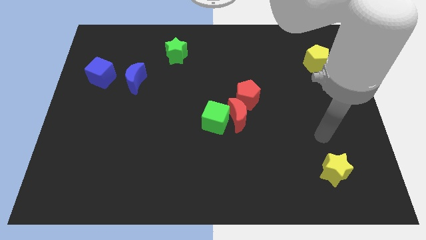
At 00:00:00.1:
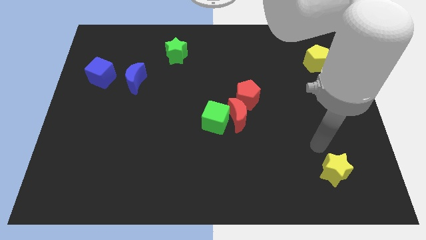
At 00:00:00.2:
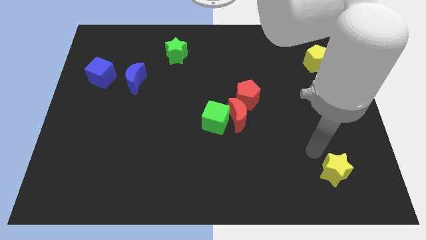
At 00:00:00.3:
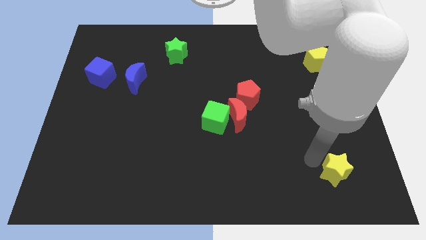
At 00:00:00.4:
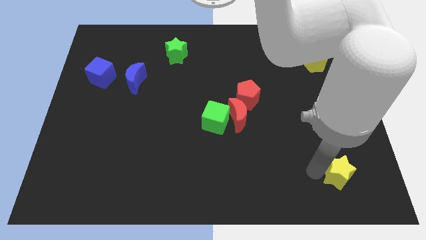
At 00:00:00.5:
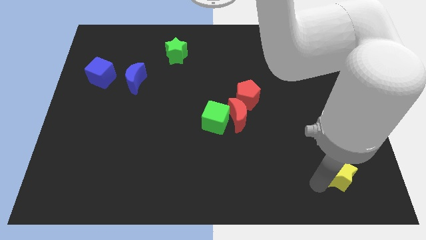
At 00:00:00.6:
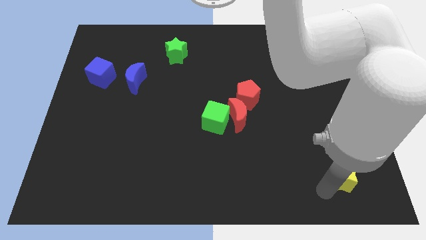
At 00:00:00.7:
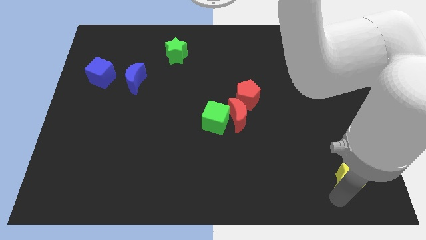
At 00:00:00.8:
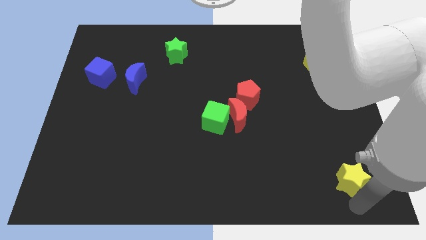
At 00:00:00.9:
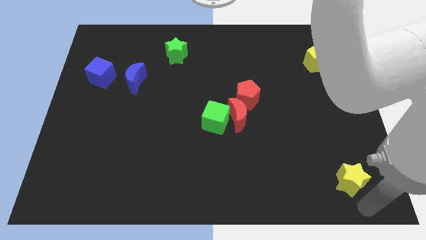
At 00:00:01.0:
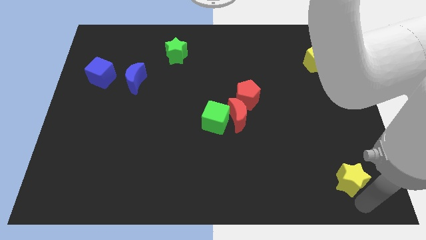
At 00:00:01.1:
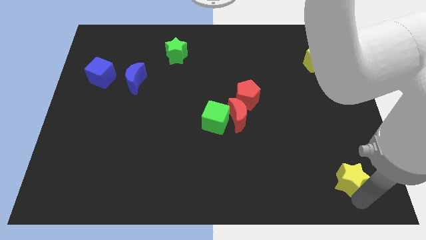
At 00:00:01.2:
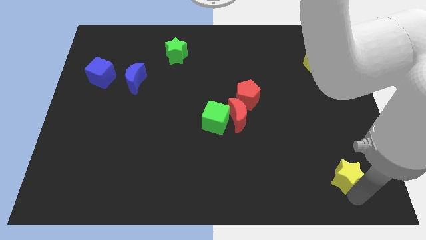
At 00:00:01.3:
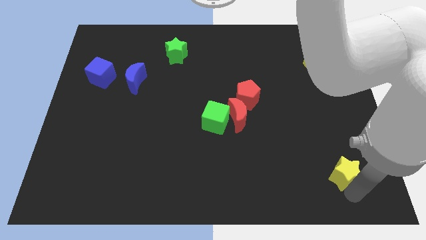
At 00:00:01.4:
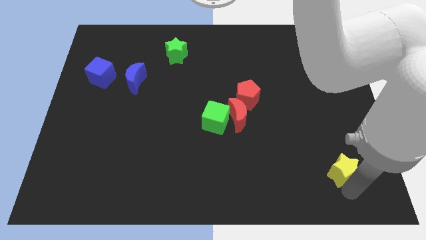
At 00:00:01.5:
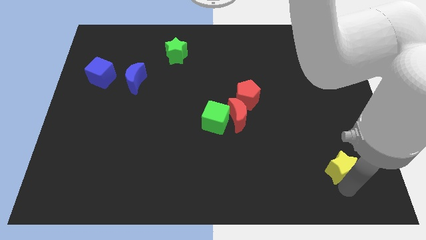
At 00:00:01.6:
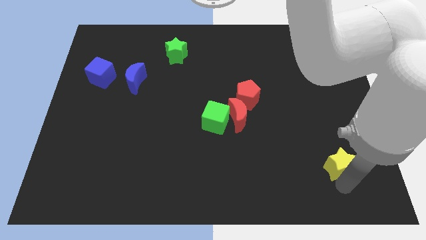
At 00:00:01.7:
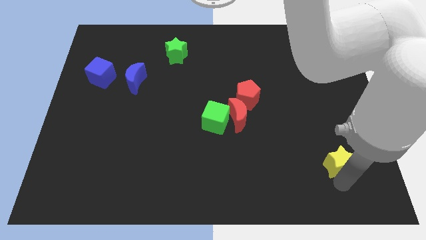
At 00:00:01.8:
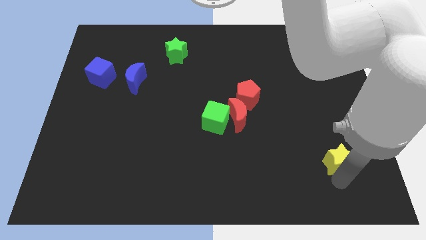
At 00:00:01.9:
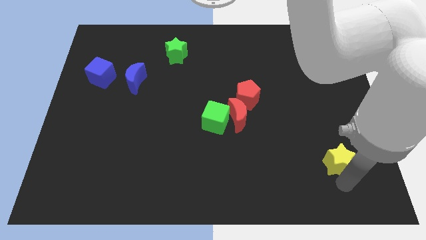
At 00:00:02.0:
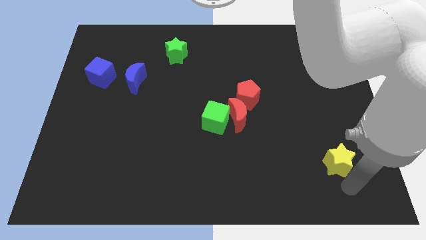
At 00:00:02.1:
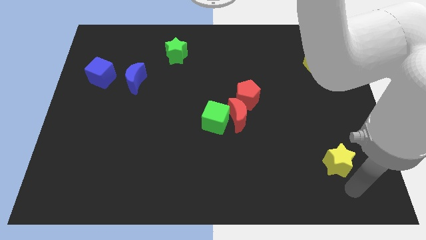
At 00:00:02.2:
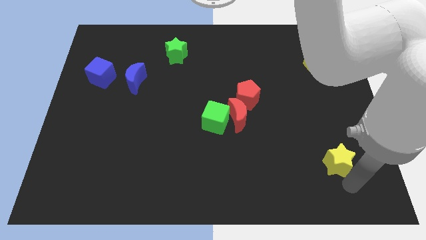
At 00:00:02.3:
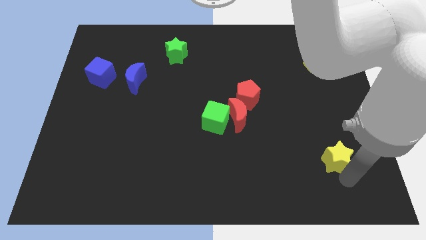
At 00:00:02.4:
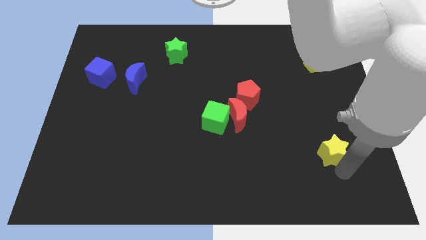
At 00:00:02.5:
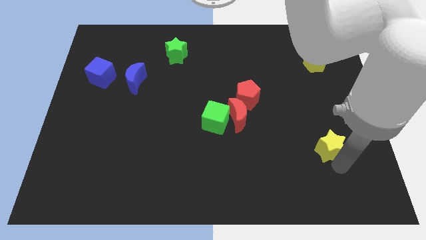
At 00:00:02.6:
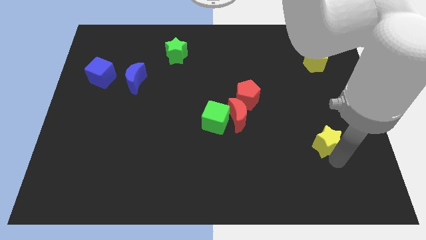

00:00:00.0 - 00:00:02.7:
move the yellow star up slightly

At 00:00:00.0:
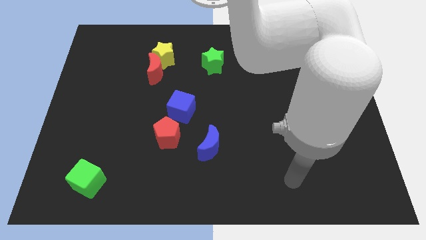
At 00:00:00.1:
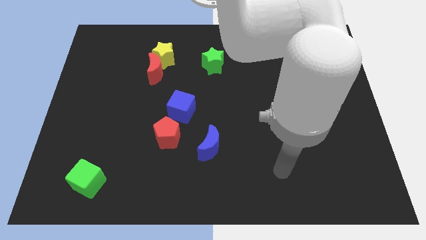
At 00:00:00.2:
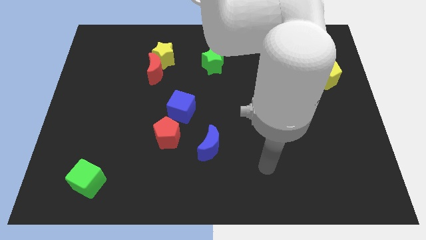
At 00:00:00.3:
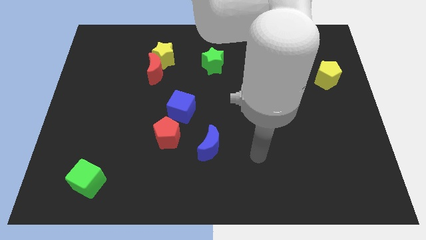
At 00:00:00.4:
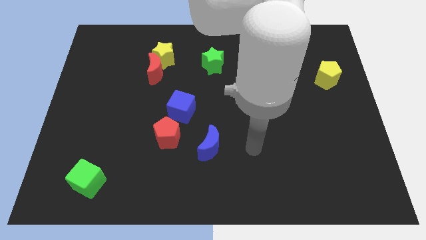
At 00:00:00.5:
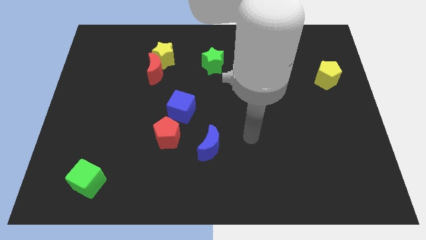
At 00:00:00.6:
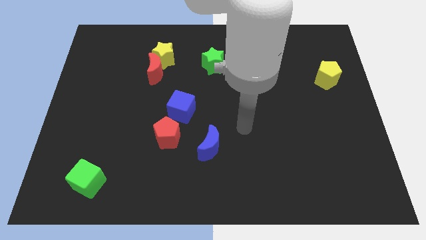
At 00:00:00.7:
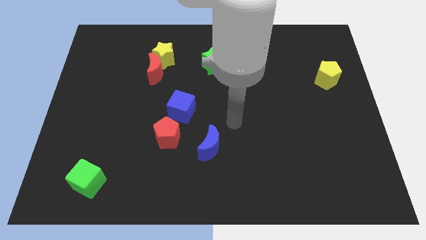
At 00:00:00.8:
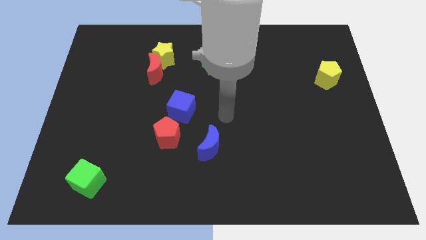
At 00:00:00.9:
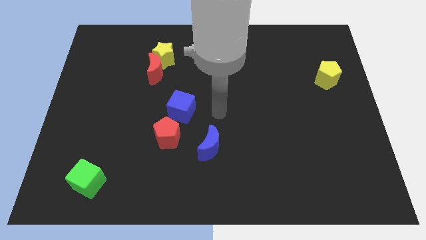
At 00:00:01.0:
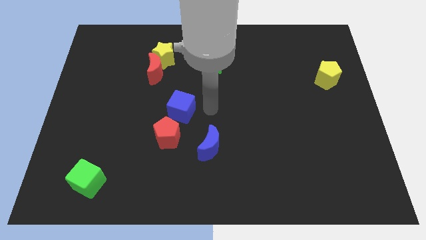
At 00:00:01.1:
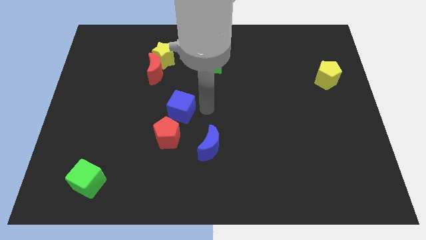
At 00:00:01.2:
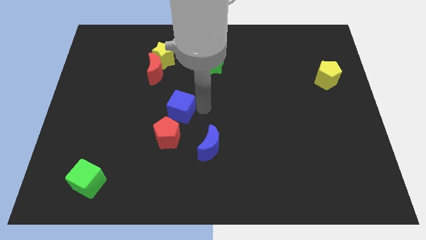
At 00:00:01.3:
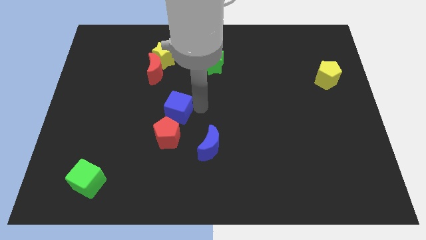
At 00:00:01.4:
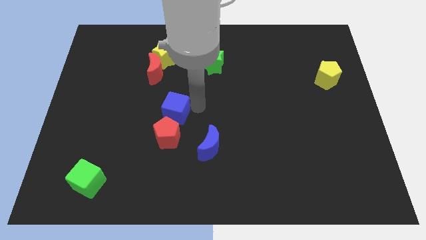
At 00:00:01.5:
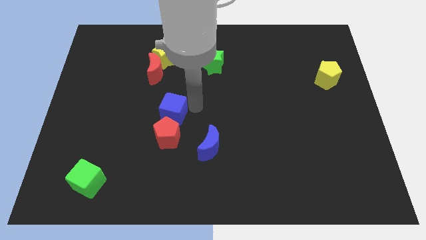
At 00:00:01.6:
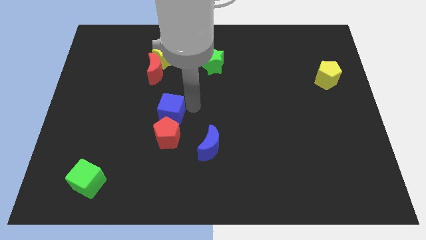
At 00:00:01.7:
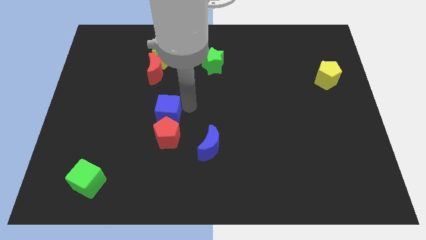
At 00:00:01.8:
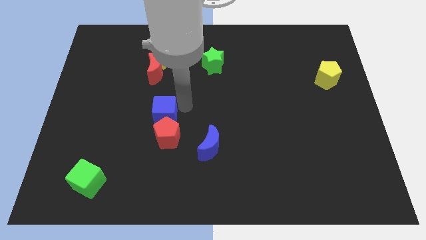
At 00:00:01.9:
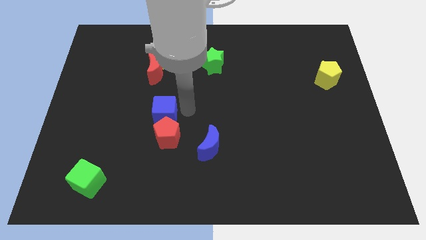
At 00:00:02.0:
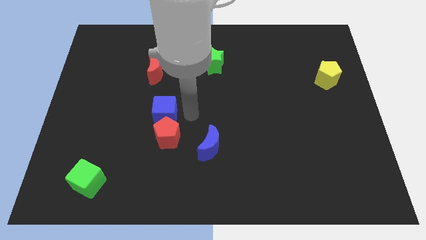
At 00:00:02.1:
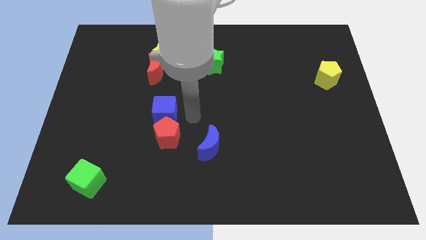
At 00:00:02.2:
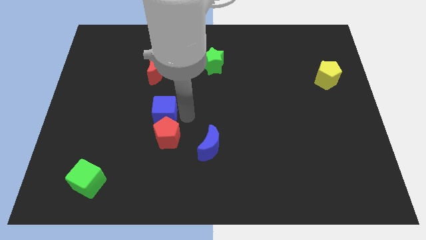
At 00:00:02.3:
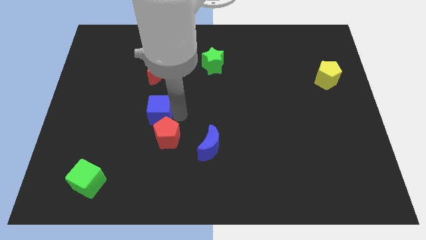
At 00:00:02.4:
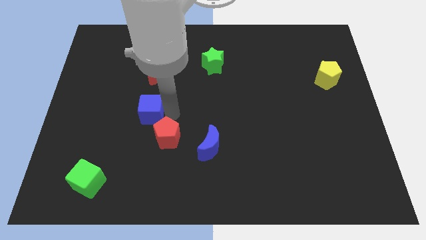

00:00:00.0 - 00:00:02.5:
slightly move the blue cube left

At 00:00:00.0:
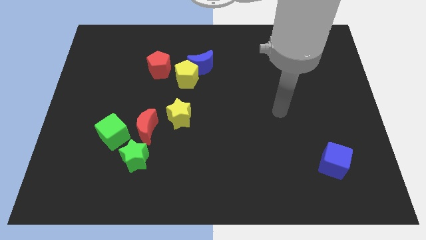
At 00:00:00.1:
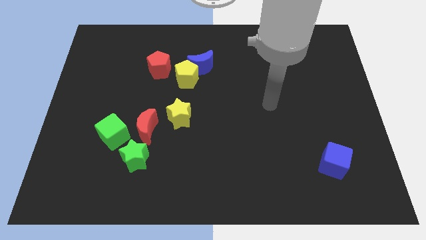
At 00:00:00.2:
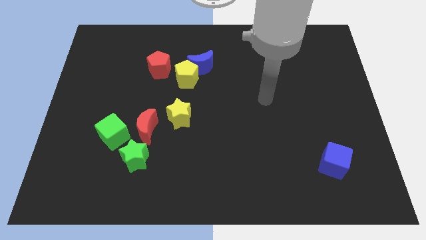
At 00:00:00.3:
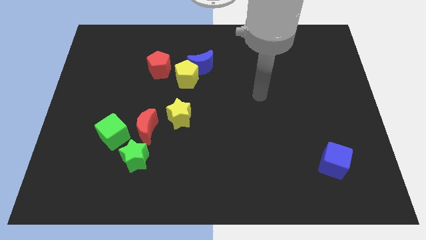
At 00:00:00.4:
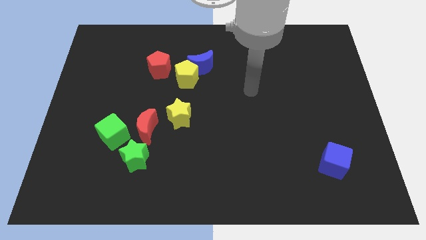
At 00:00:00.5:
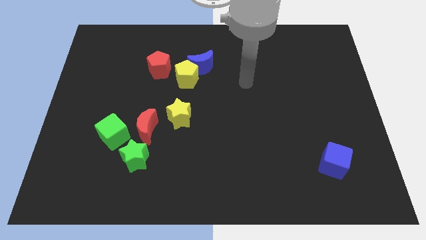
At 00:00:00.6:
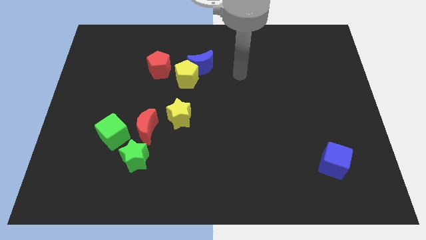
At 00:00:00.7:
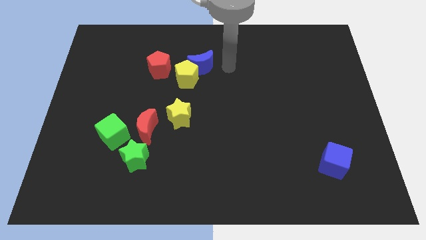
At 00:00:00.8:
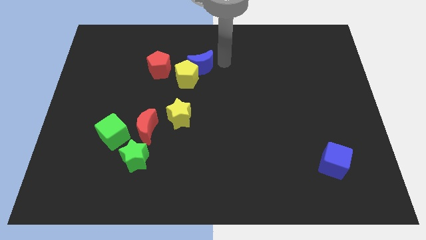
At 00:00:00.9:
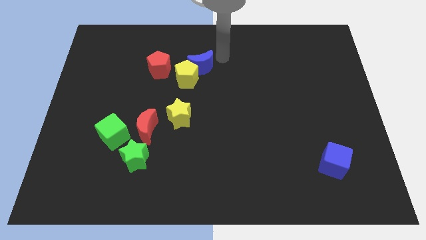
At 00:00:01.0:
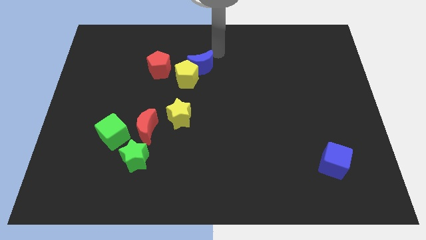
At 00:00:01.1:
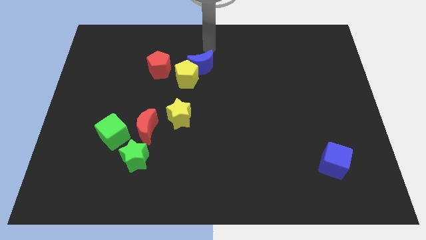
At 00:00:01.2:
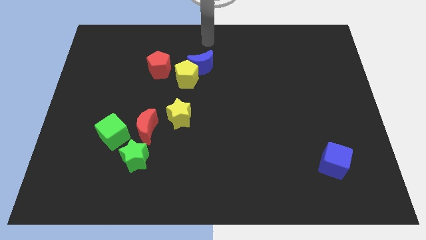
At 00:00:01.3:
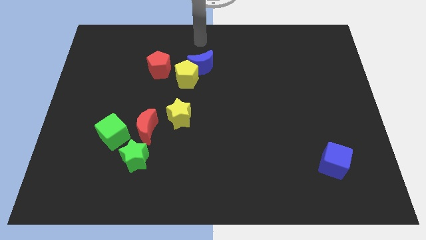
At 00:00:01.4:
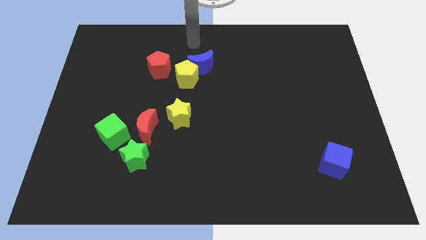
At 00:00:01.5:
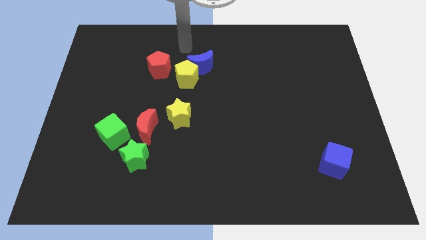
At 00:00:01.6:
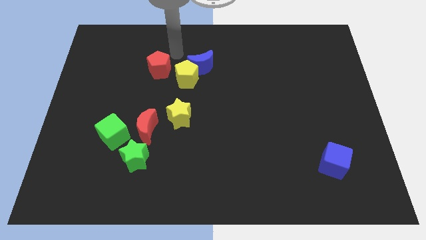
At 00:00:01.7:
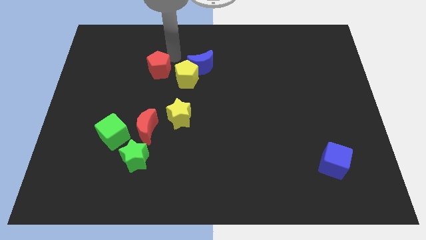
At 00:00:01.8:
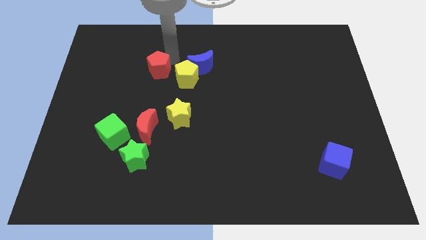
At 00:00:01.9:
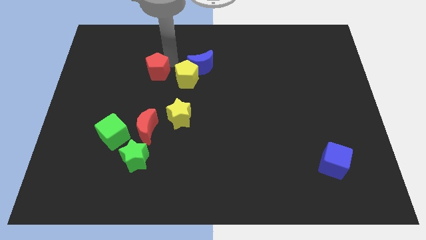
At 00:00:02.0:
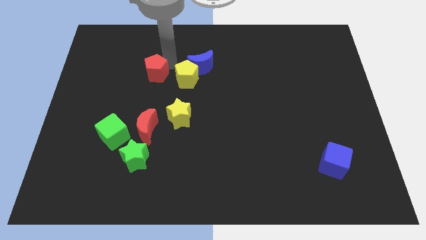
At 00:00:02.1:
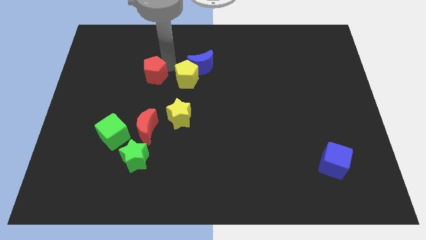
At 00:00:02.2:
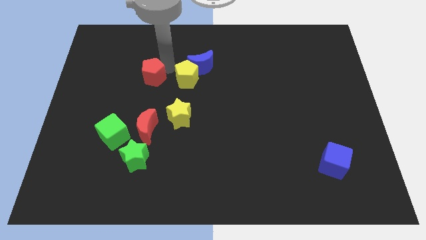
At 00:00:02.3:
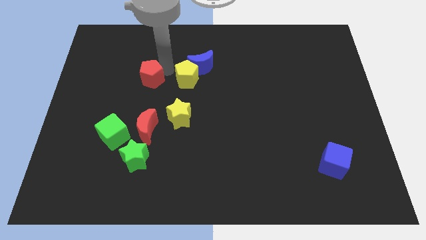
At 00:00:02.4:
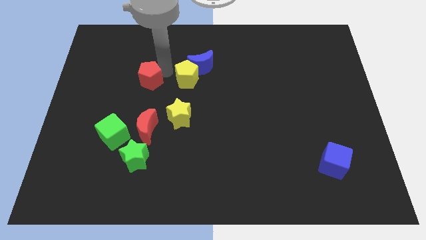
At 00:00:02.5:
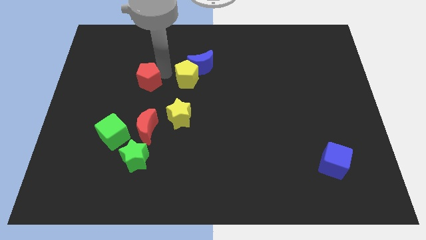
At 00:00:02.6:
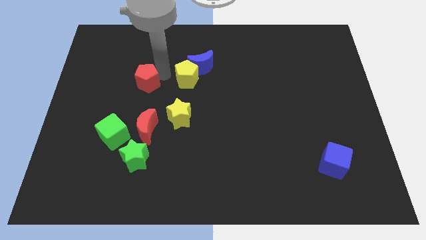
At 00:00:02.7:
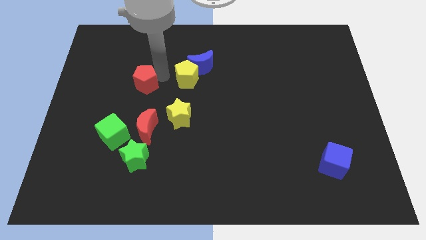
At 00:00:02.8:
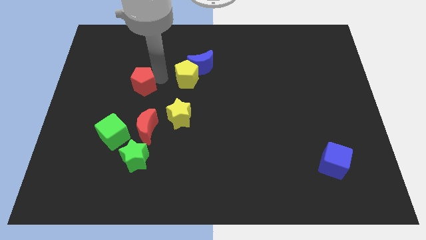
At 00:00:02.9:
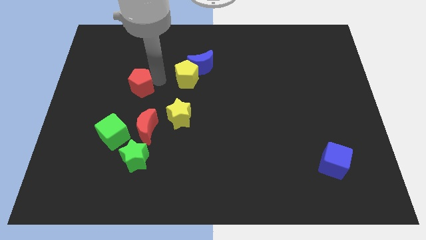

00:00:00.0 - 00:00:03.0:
move the red pentagon diagonally down and to the left a little

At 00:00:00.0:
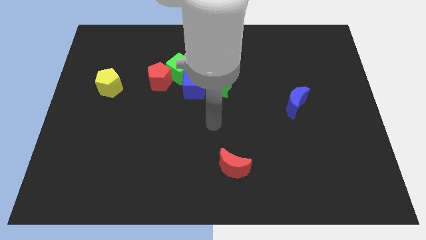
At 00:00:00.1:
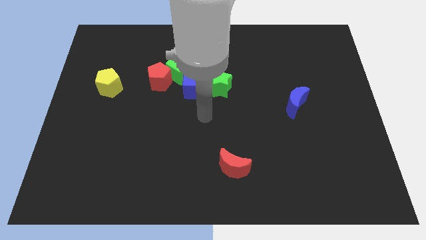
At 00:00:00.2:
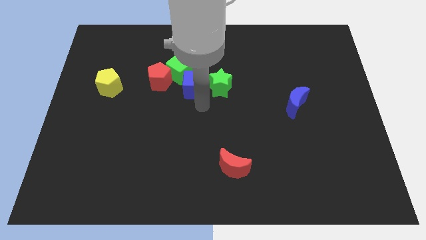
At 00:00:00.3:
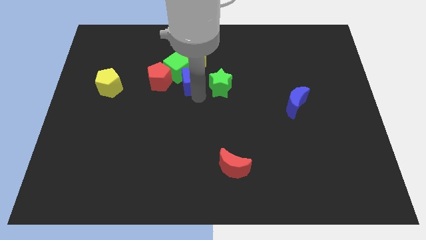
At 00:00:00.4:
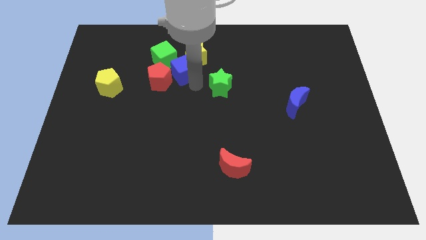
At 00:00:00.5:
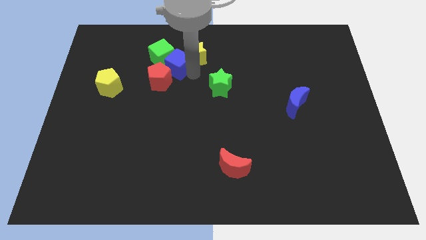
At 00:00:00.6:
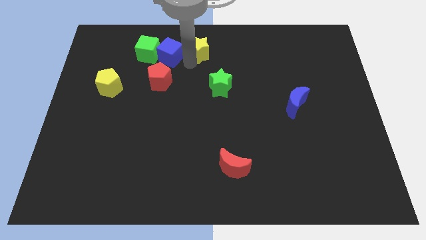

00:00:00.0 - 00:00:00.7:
slide the green cube a little left
